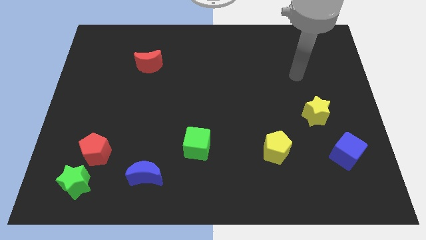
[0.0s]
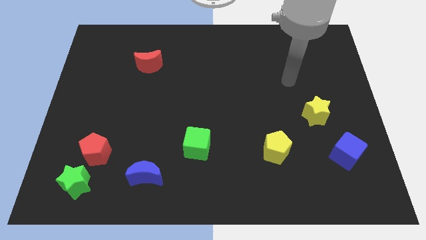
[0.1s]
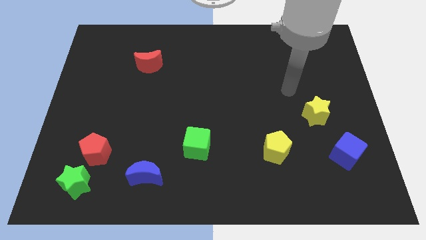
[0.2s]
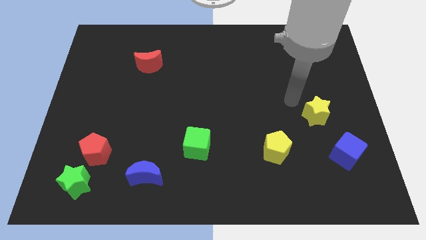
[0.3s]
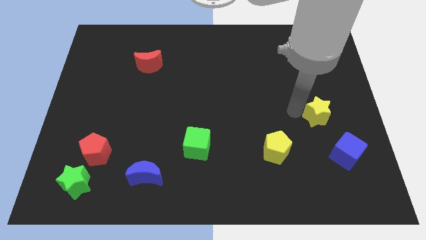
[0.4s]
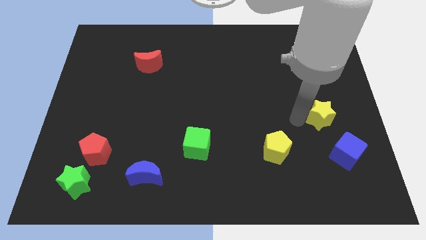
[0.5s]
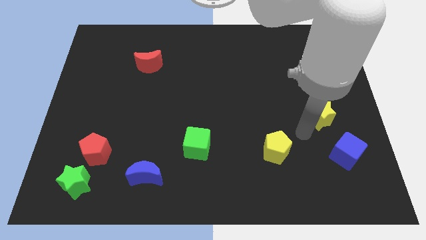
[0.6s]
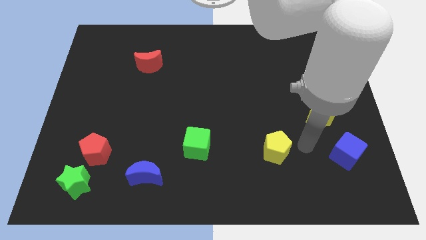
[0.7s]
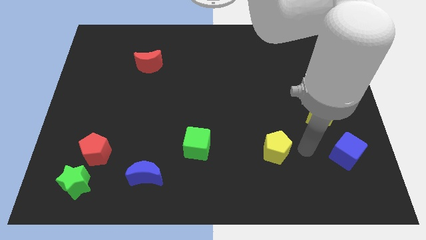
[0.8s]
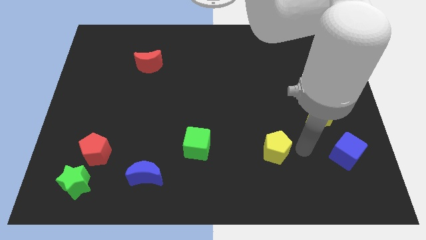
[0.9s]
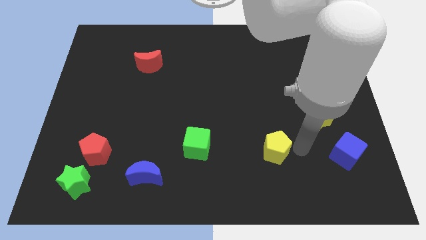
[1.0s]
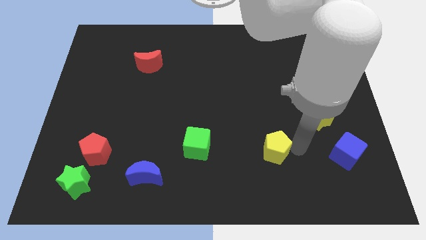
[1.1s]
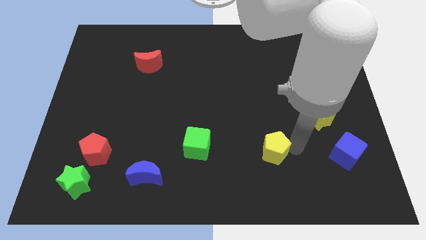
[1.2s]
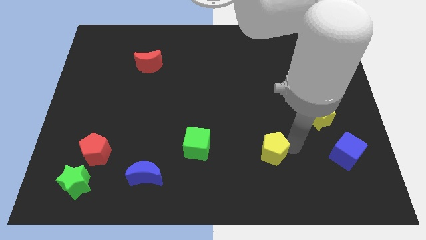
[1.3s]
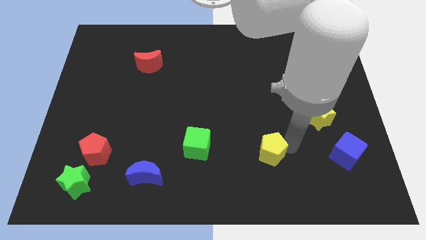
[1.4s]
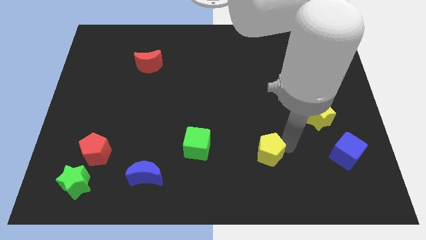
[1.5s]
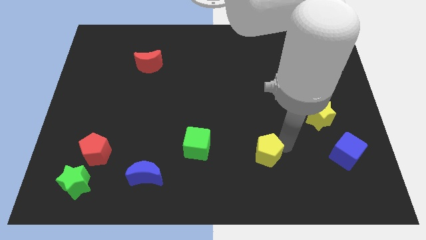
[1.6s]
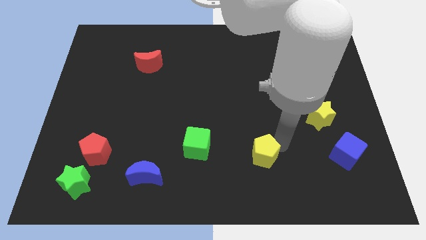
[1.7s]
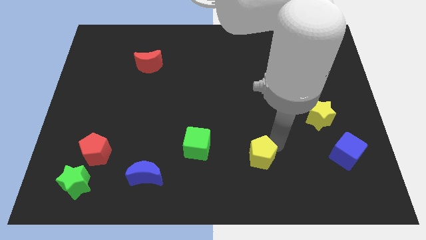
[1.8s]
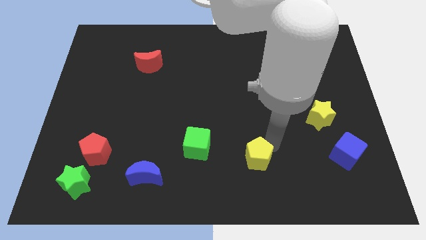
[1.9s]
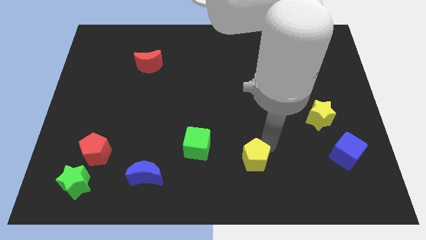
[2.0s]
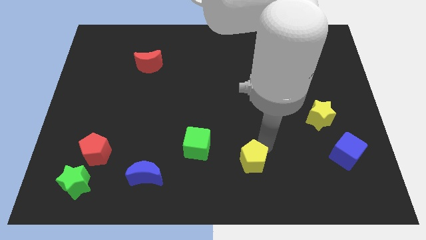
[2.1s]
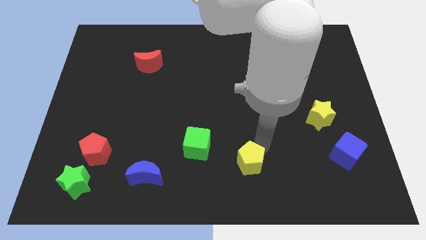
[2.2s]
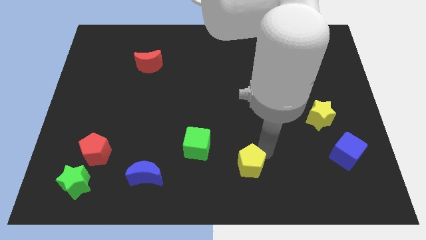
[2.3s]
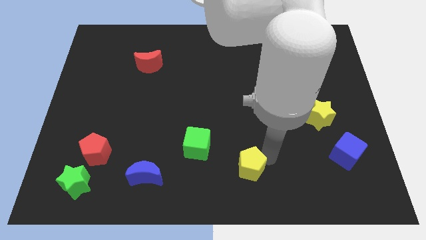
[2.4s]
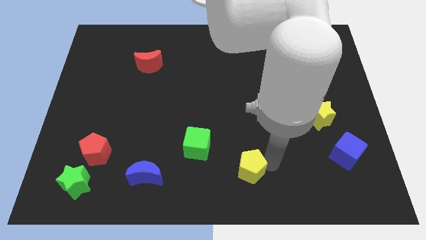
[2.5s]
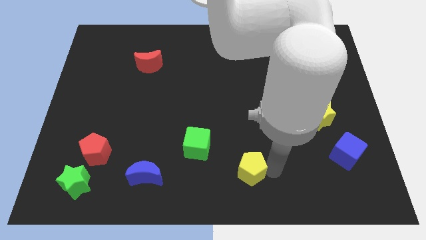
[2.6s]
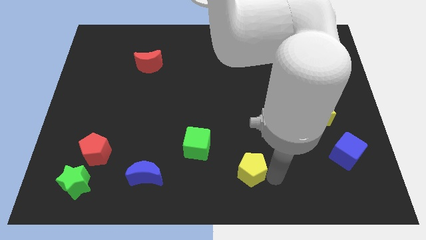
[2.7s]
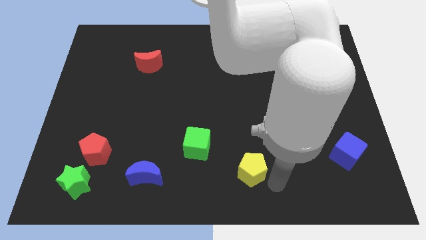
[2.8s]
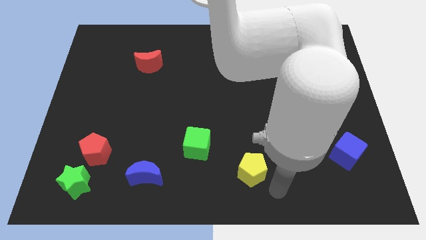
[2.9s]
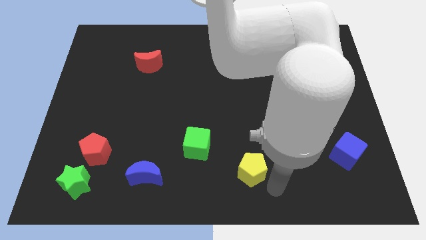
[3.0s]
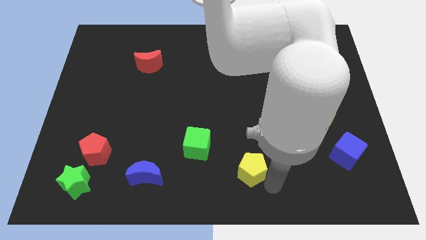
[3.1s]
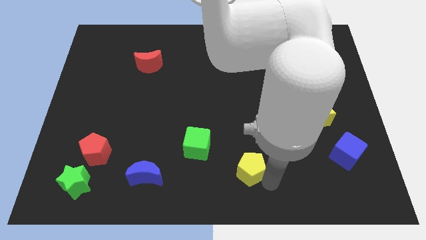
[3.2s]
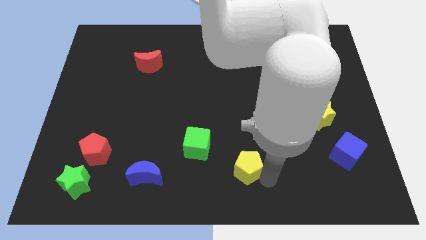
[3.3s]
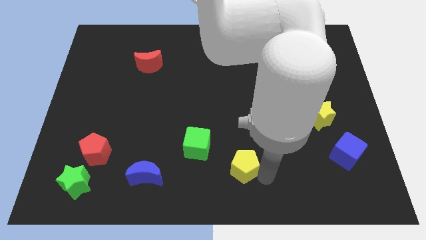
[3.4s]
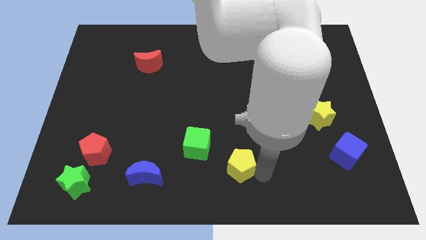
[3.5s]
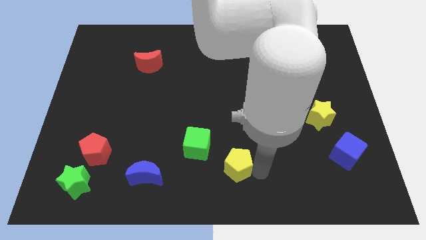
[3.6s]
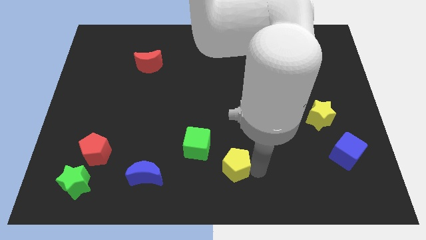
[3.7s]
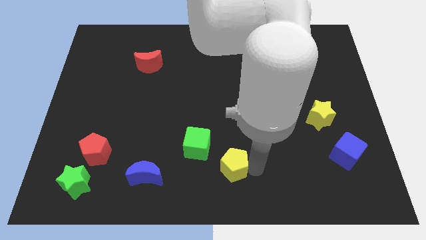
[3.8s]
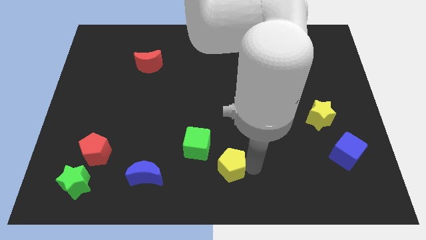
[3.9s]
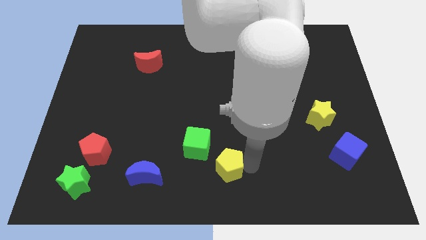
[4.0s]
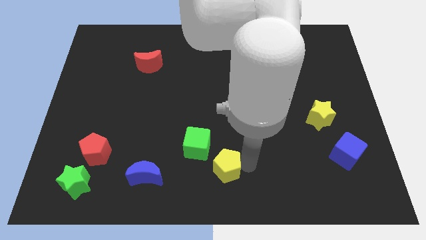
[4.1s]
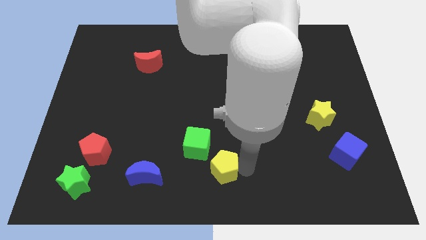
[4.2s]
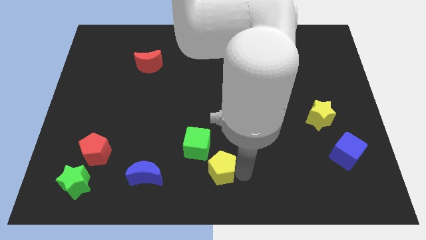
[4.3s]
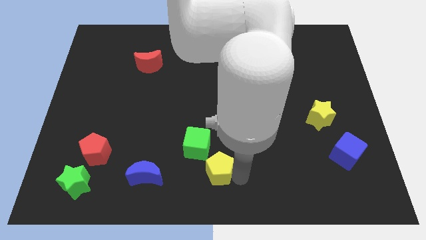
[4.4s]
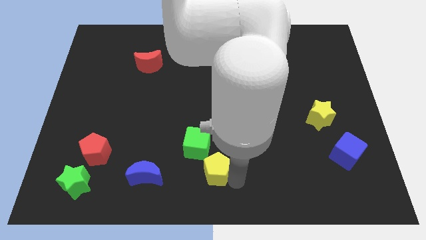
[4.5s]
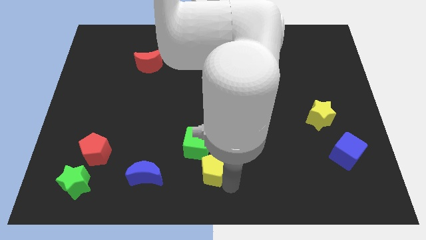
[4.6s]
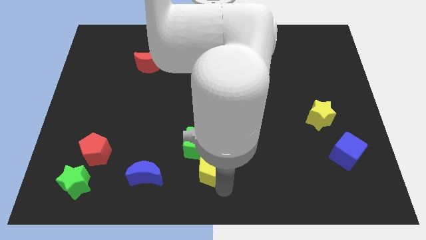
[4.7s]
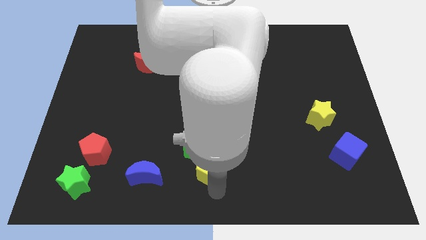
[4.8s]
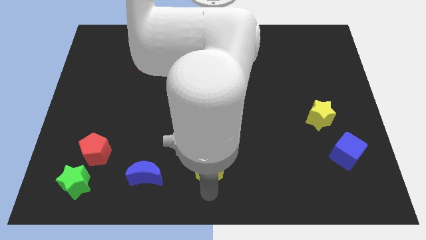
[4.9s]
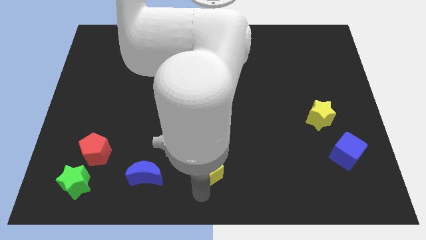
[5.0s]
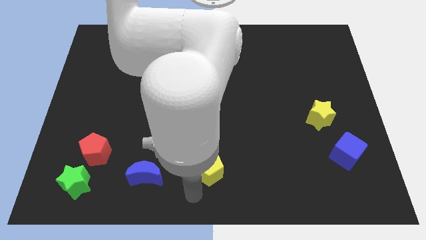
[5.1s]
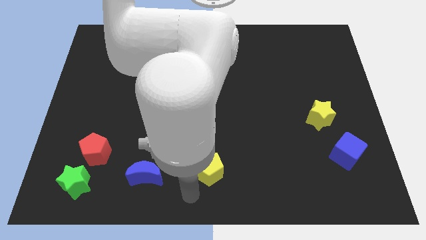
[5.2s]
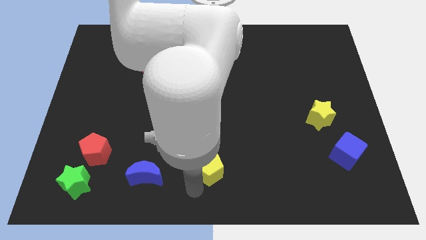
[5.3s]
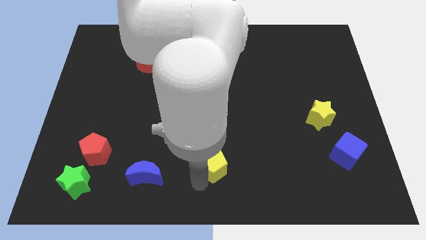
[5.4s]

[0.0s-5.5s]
push the yellow pentagon towards the green cube

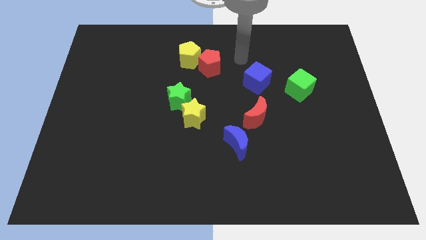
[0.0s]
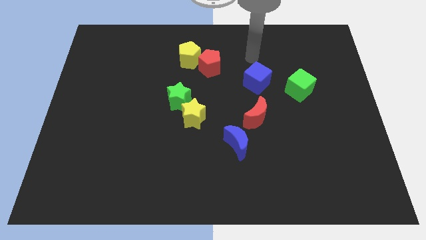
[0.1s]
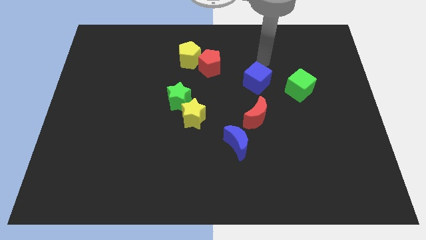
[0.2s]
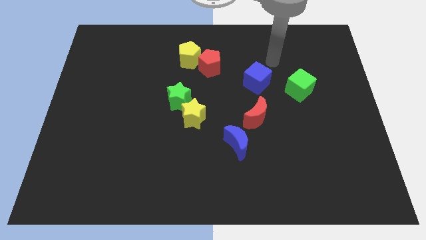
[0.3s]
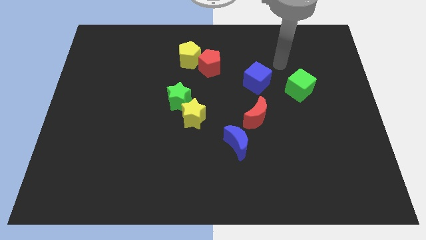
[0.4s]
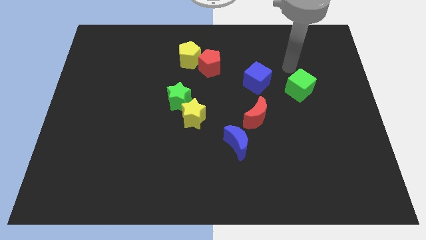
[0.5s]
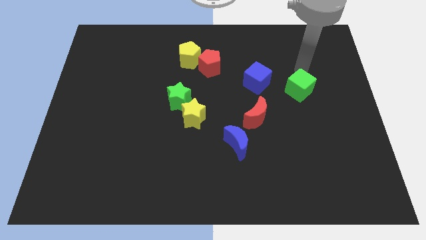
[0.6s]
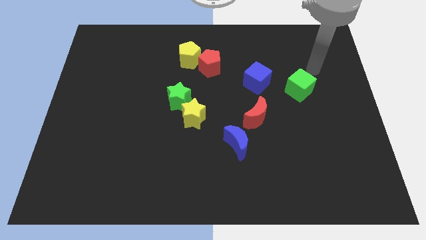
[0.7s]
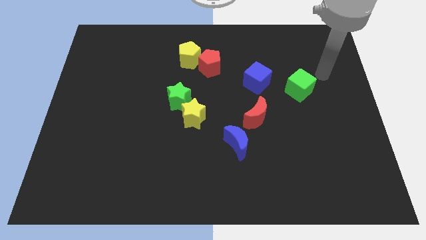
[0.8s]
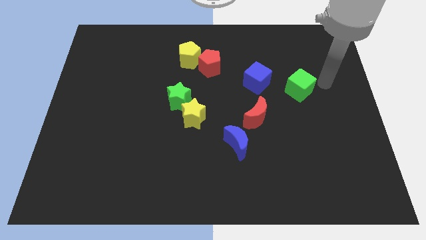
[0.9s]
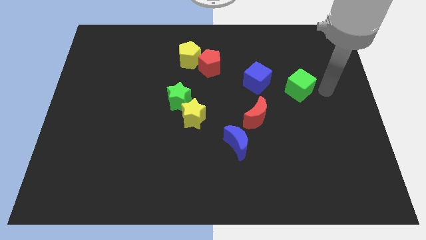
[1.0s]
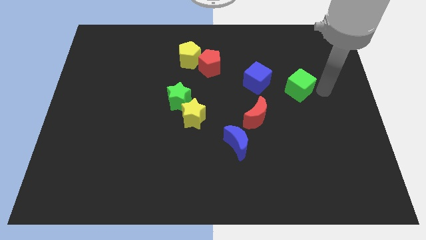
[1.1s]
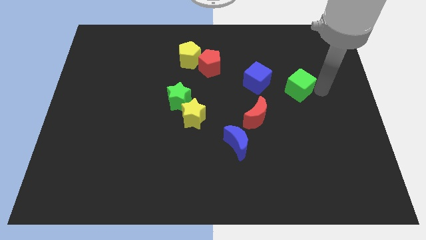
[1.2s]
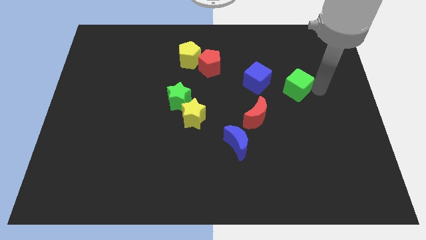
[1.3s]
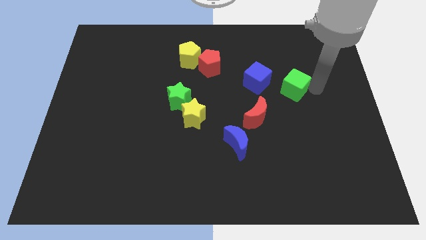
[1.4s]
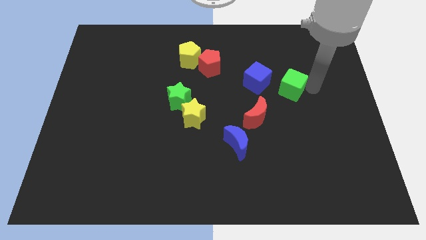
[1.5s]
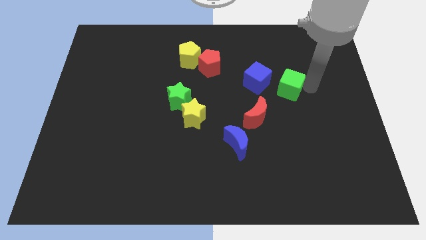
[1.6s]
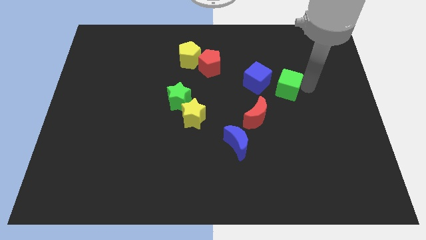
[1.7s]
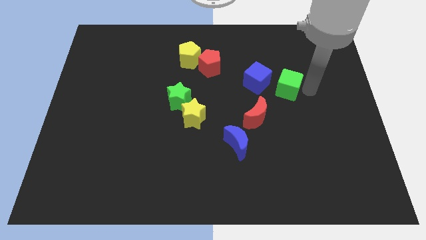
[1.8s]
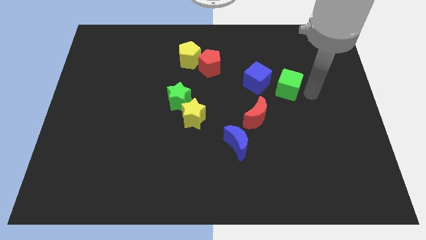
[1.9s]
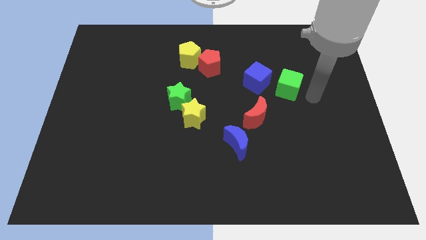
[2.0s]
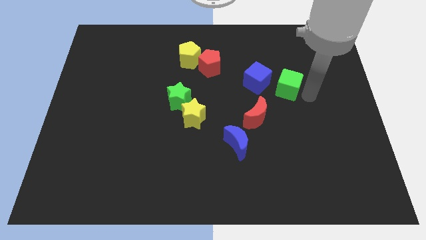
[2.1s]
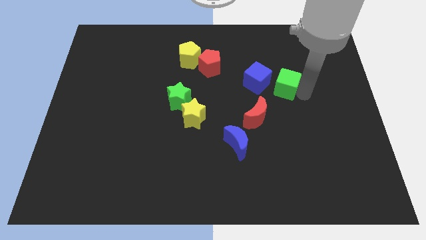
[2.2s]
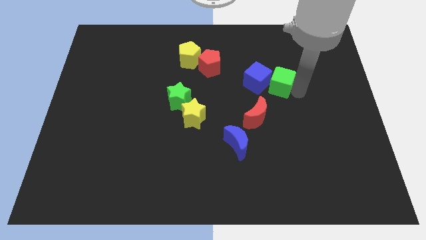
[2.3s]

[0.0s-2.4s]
move the green cube close to the blue cube
